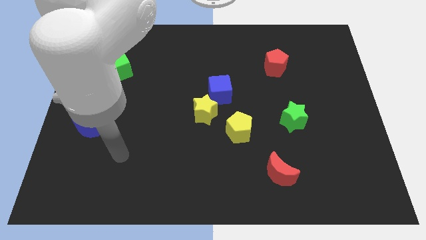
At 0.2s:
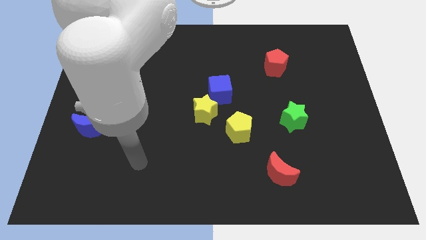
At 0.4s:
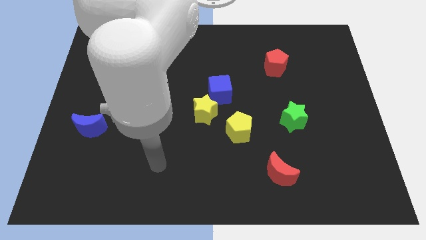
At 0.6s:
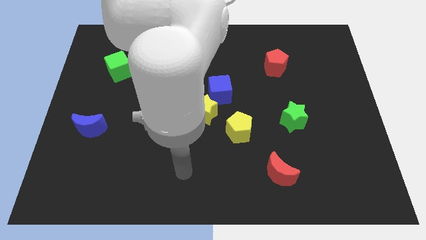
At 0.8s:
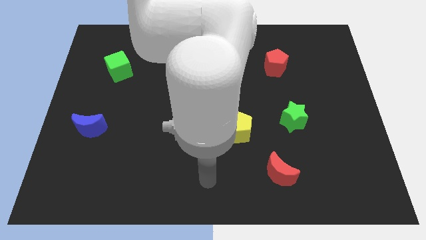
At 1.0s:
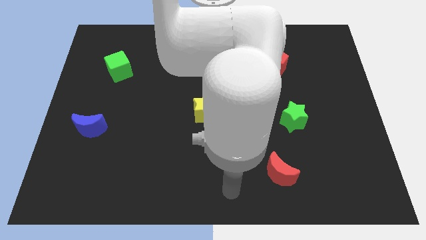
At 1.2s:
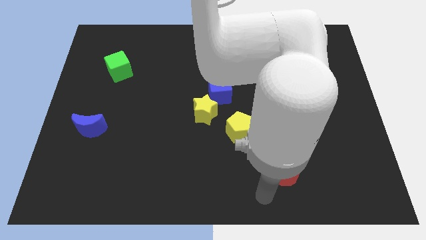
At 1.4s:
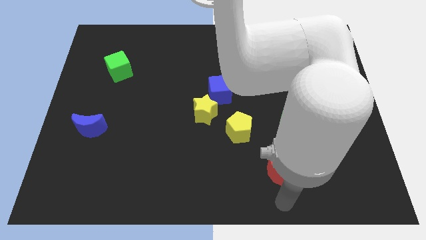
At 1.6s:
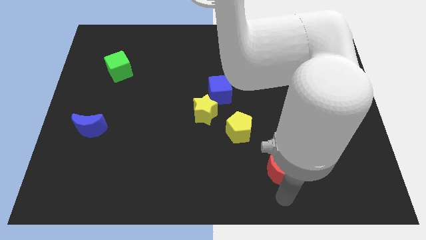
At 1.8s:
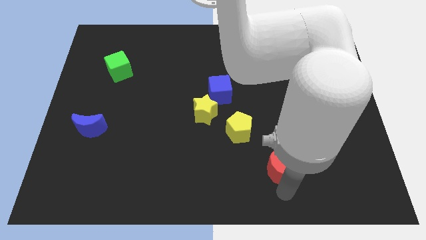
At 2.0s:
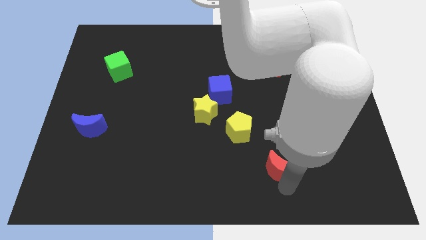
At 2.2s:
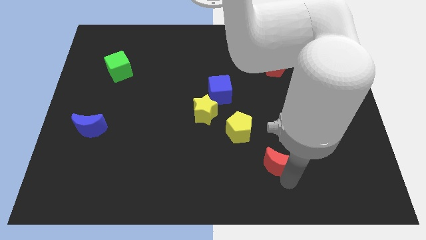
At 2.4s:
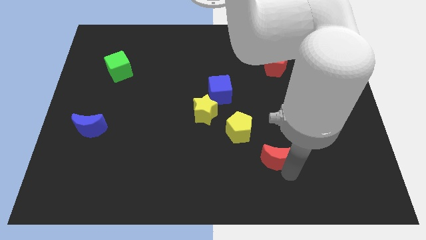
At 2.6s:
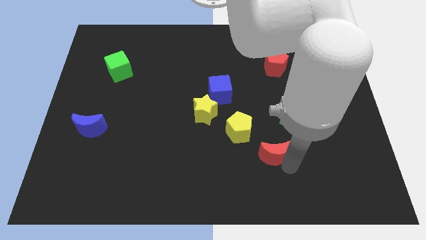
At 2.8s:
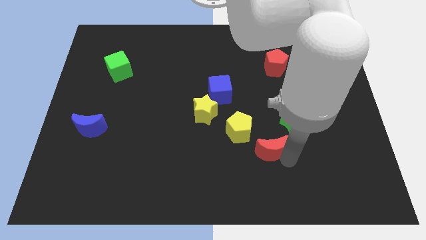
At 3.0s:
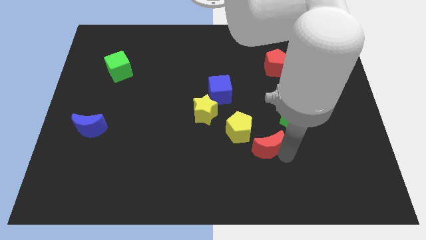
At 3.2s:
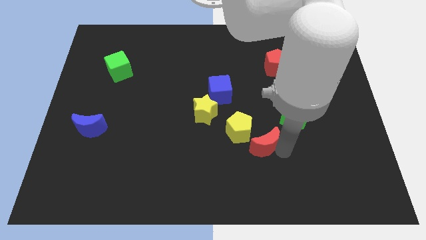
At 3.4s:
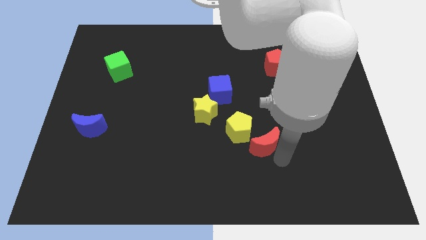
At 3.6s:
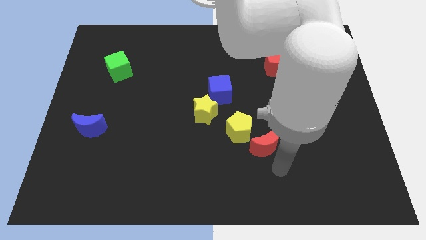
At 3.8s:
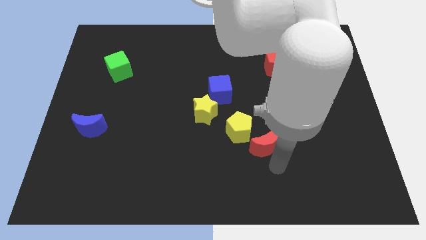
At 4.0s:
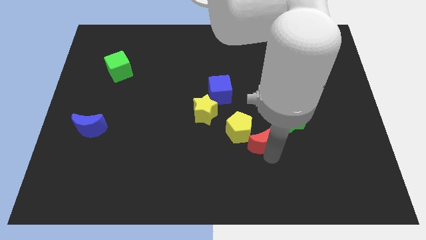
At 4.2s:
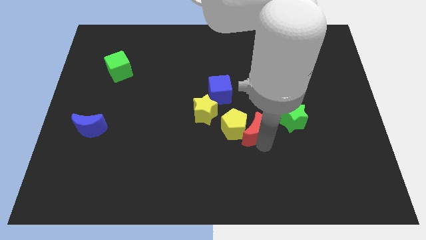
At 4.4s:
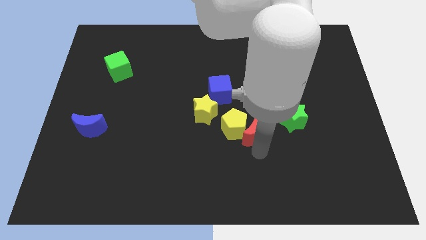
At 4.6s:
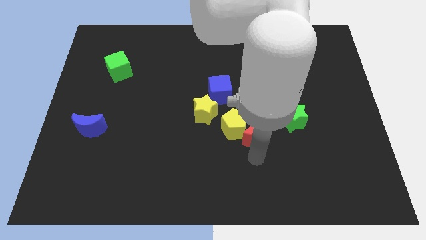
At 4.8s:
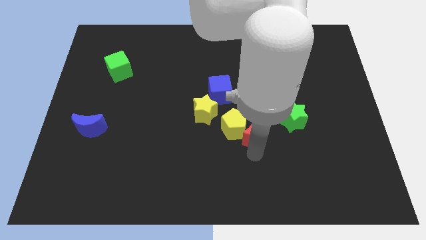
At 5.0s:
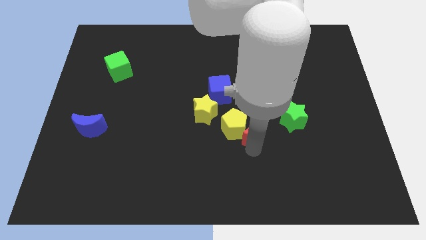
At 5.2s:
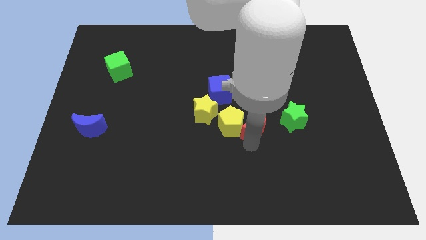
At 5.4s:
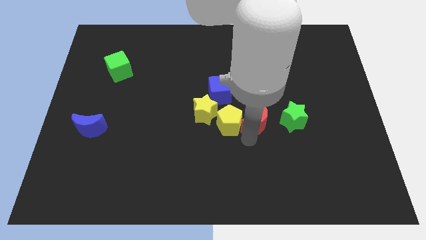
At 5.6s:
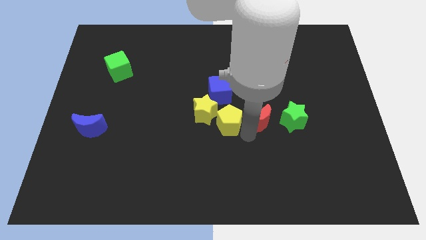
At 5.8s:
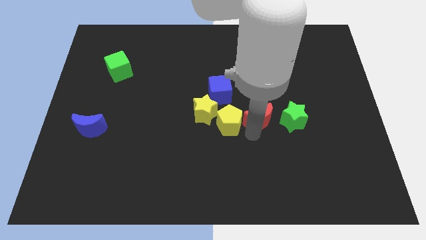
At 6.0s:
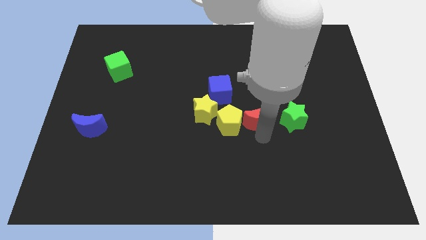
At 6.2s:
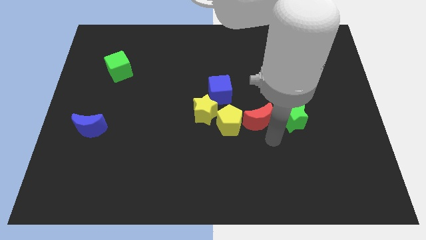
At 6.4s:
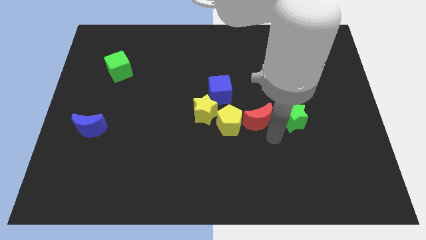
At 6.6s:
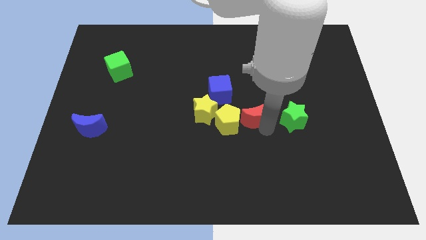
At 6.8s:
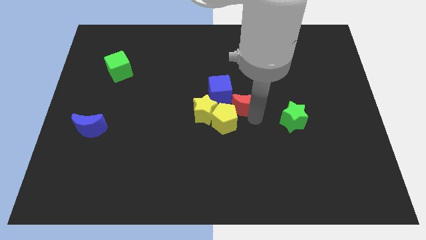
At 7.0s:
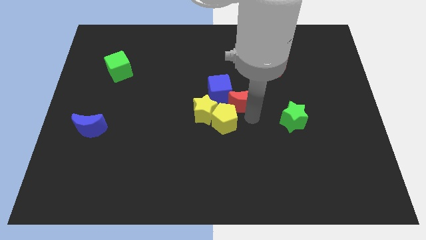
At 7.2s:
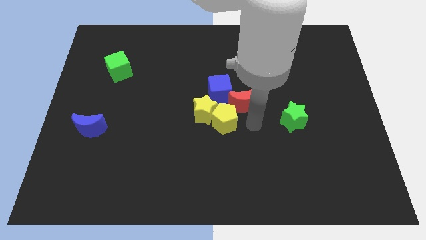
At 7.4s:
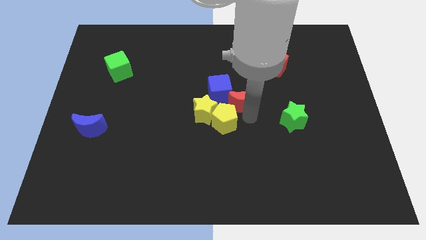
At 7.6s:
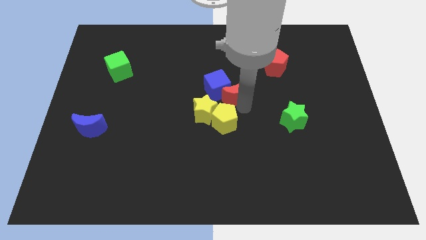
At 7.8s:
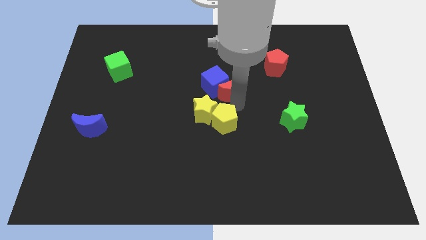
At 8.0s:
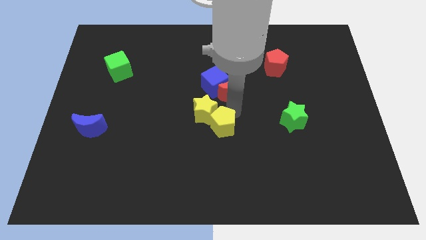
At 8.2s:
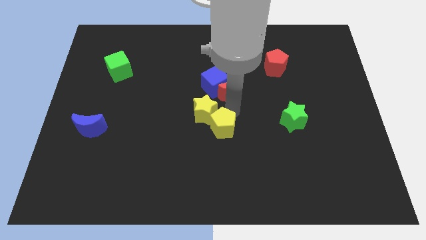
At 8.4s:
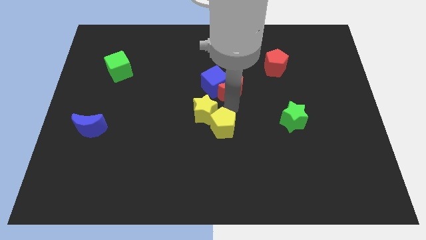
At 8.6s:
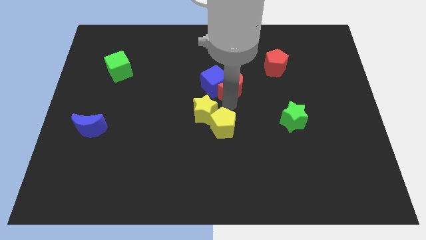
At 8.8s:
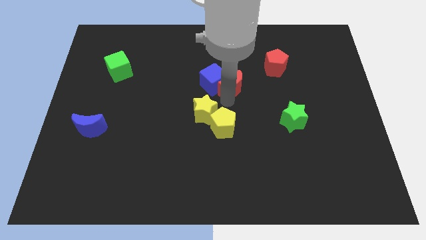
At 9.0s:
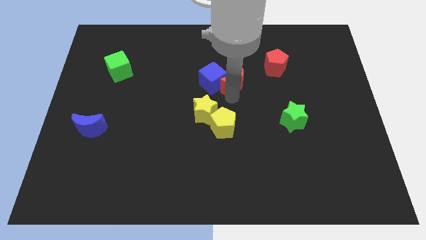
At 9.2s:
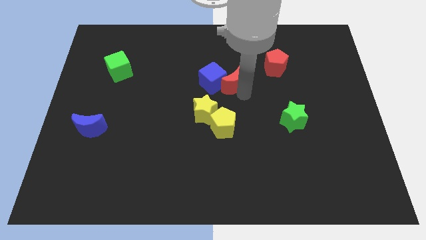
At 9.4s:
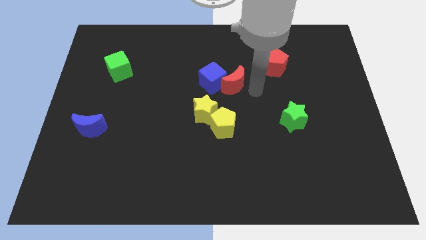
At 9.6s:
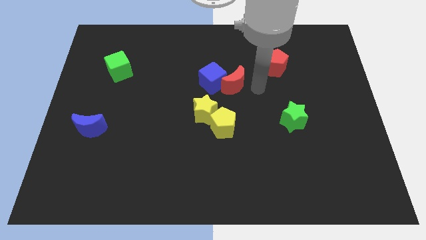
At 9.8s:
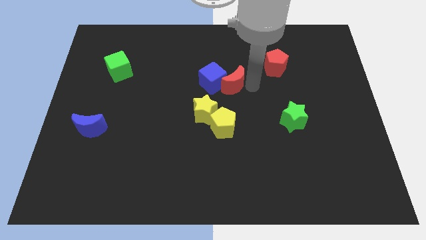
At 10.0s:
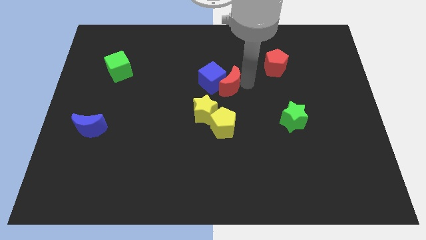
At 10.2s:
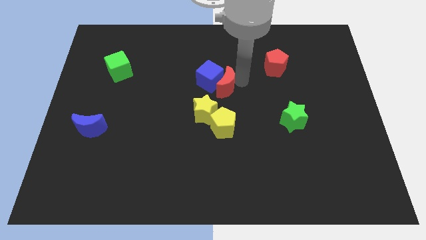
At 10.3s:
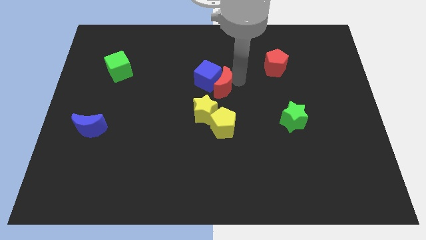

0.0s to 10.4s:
move the red moon above the yellow star

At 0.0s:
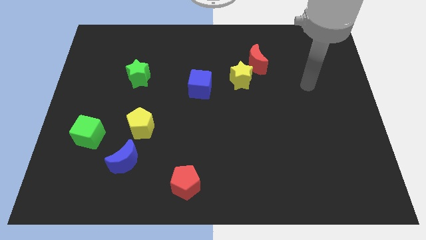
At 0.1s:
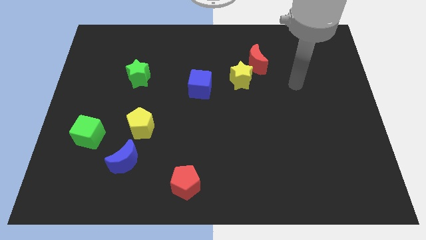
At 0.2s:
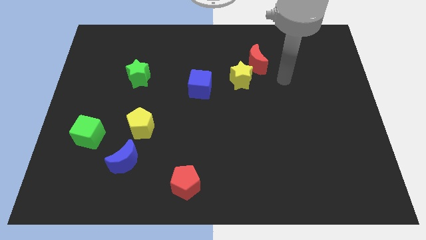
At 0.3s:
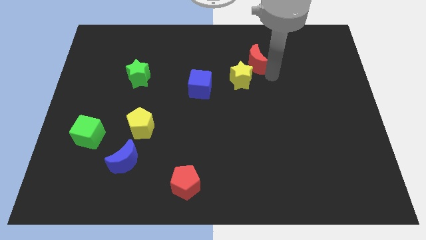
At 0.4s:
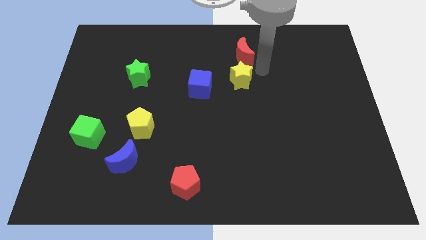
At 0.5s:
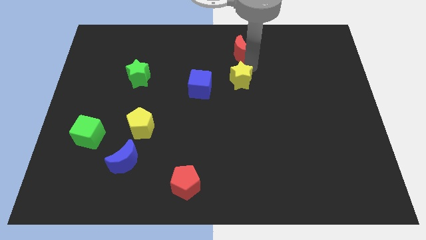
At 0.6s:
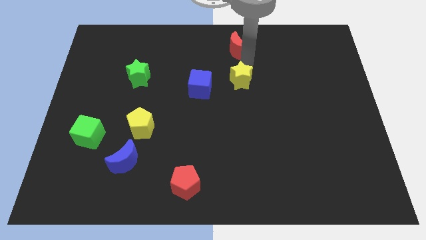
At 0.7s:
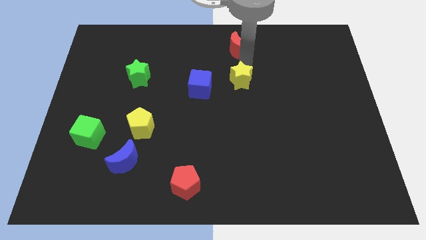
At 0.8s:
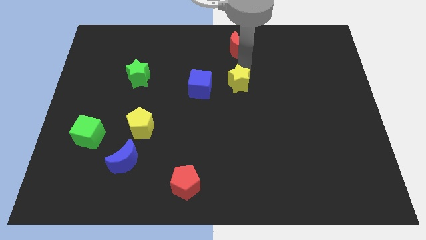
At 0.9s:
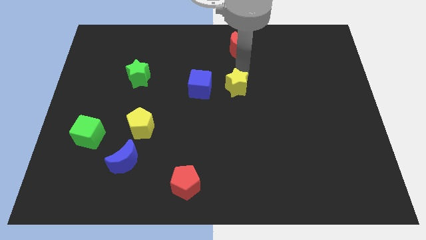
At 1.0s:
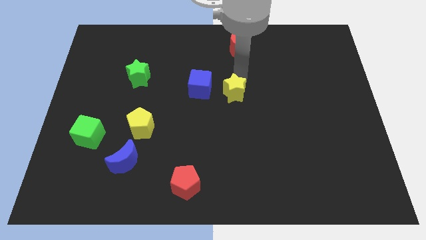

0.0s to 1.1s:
slide the yellow star to the bottom right of the blue cube

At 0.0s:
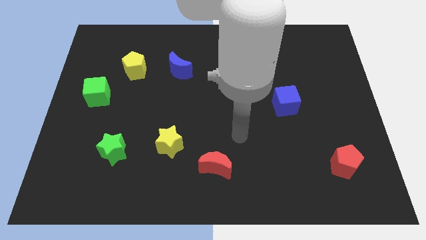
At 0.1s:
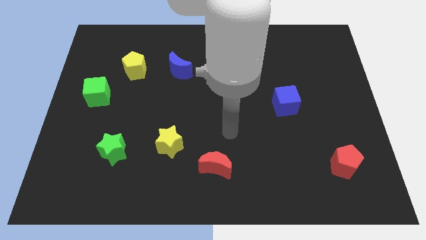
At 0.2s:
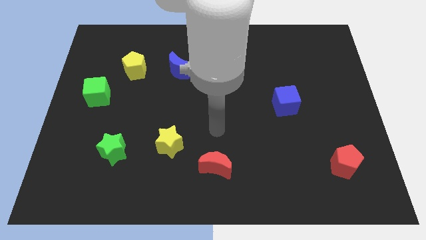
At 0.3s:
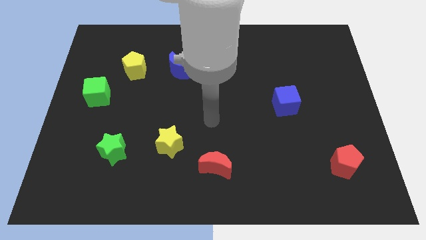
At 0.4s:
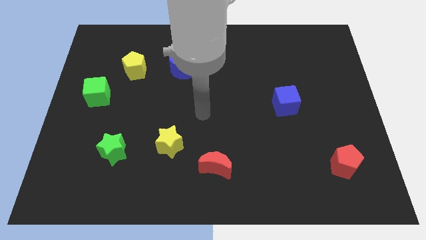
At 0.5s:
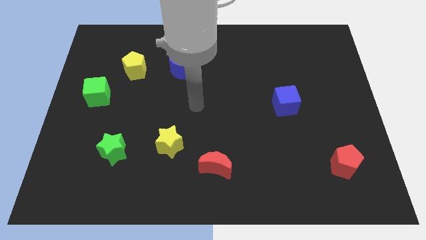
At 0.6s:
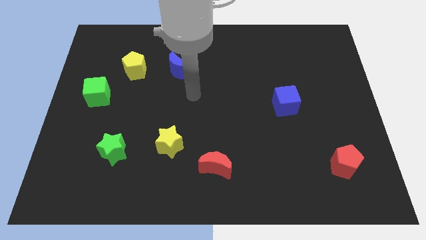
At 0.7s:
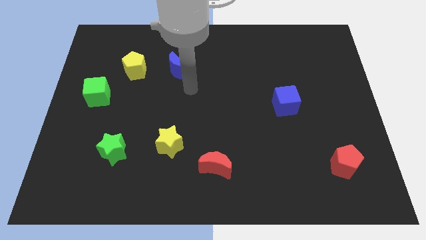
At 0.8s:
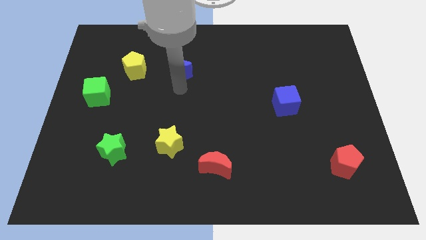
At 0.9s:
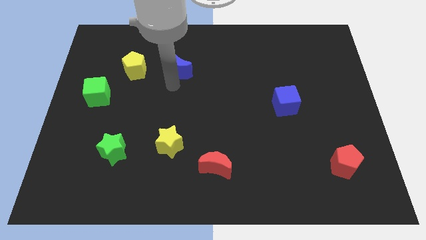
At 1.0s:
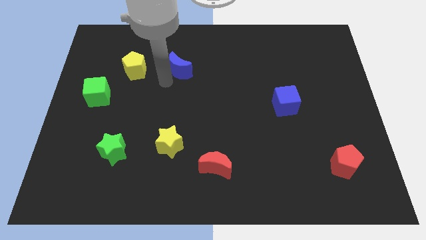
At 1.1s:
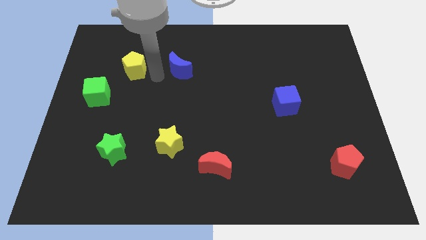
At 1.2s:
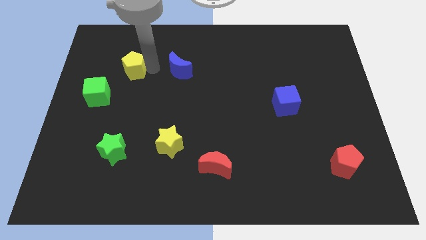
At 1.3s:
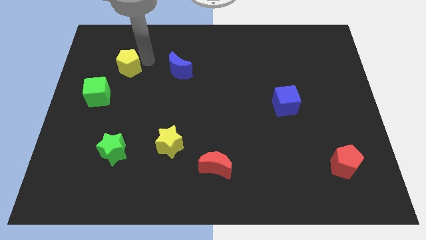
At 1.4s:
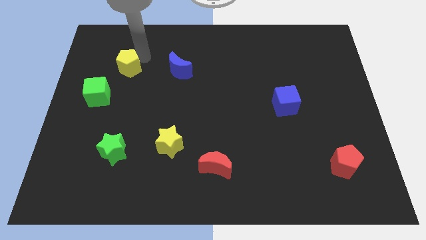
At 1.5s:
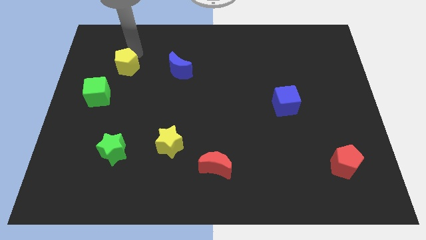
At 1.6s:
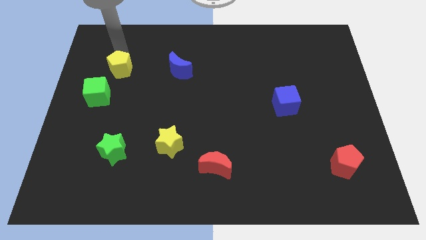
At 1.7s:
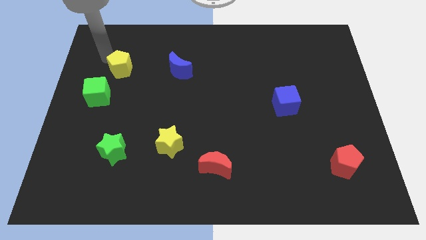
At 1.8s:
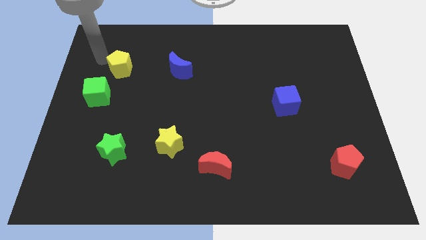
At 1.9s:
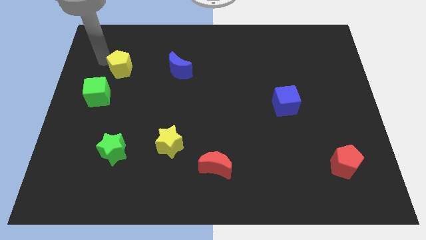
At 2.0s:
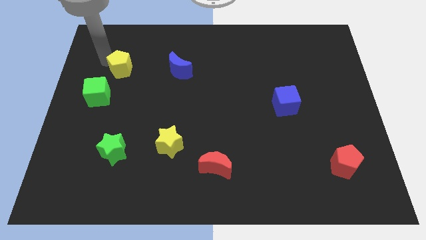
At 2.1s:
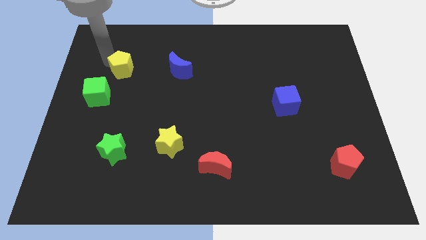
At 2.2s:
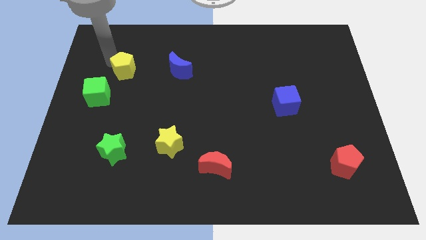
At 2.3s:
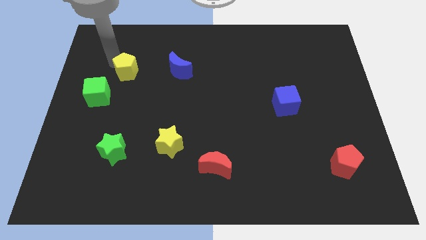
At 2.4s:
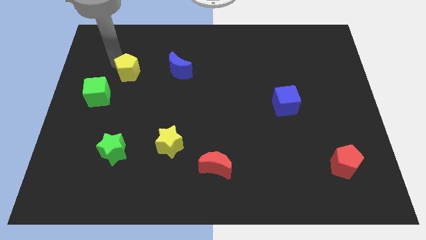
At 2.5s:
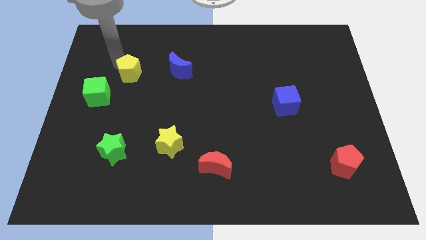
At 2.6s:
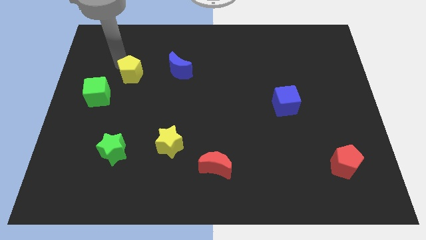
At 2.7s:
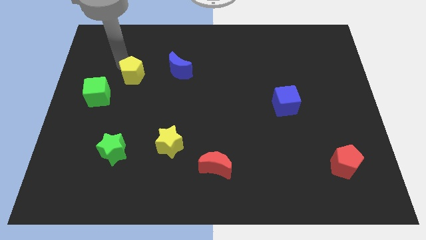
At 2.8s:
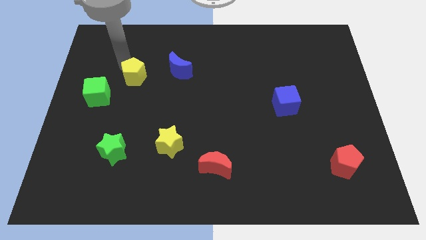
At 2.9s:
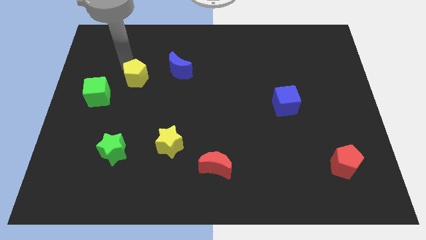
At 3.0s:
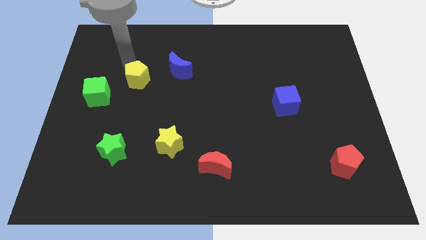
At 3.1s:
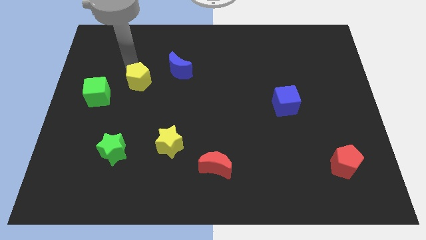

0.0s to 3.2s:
put the yellow pentagon to the bottom left side of the blue moon
